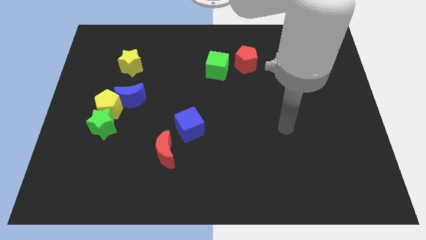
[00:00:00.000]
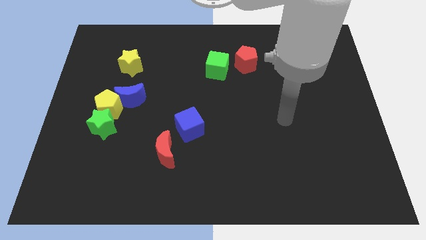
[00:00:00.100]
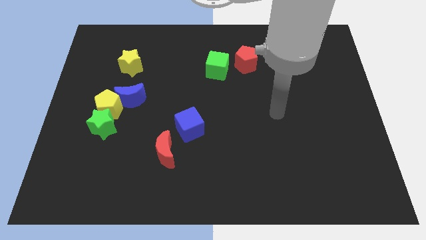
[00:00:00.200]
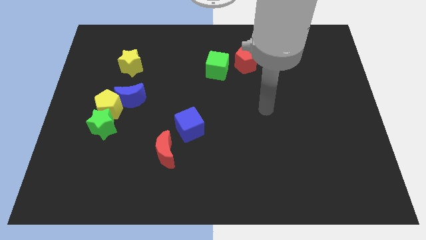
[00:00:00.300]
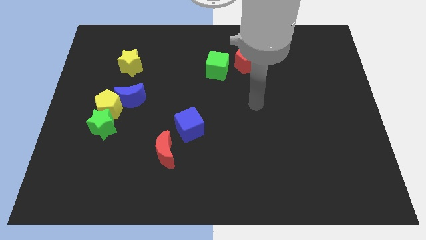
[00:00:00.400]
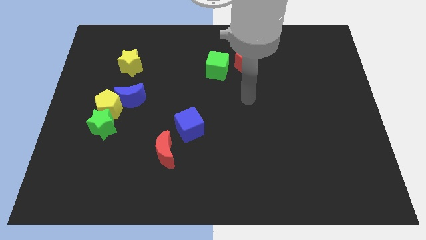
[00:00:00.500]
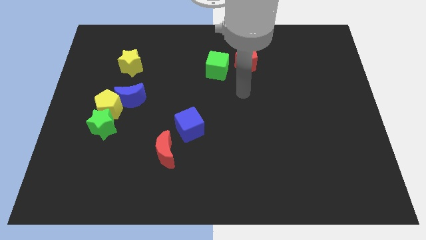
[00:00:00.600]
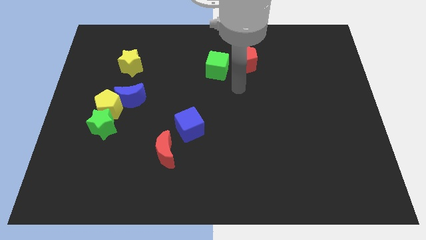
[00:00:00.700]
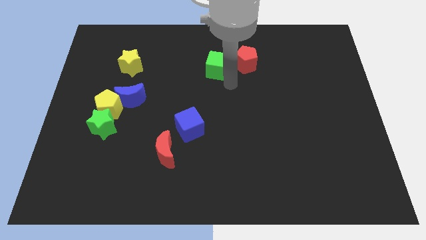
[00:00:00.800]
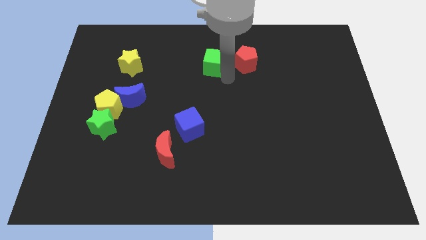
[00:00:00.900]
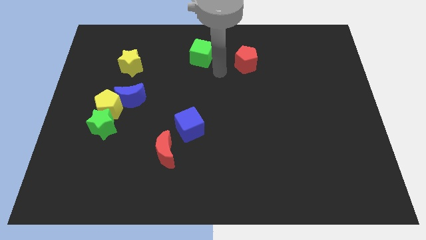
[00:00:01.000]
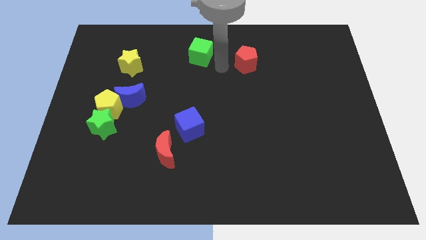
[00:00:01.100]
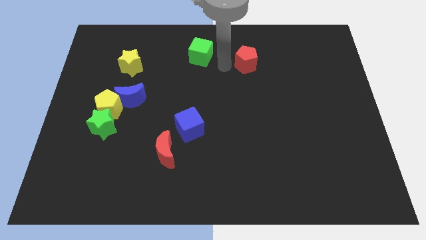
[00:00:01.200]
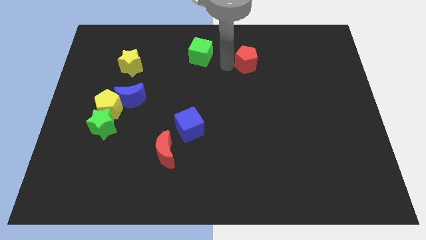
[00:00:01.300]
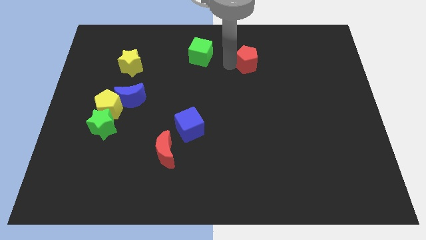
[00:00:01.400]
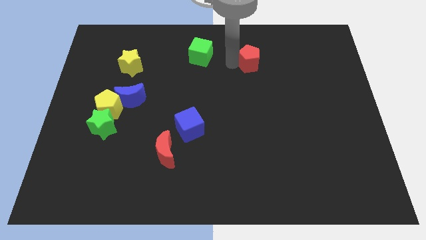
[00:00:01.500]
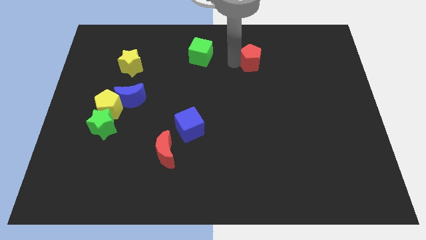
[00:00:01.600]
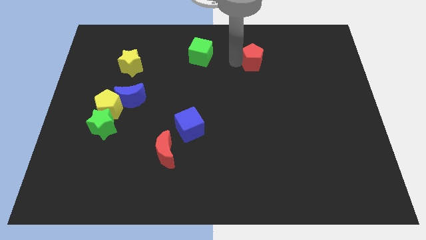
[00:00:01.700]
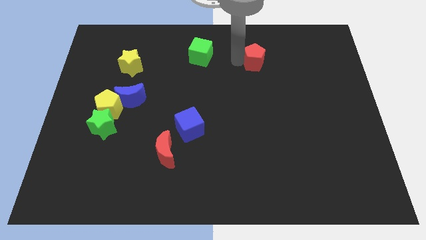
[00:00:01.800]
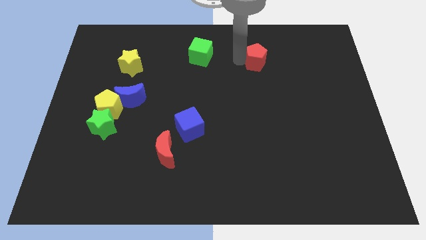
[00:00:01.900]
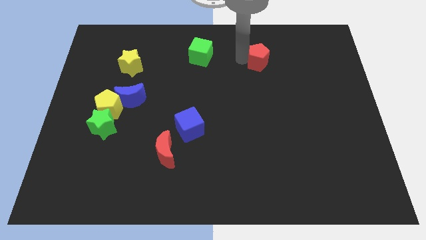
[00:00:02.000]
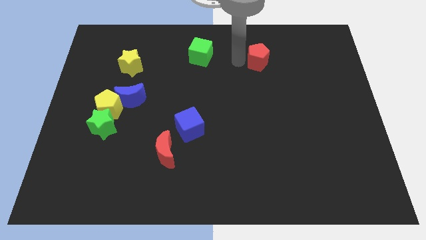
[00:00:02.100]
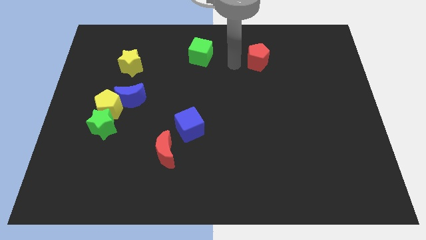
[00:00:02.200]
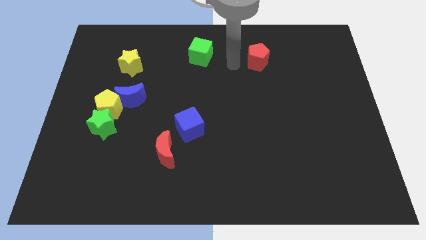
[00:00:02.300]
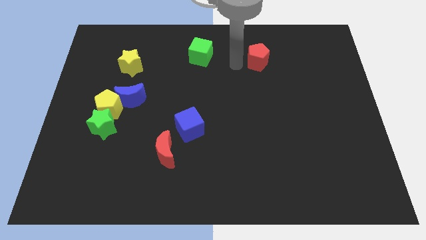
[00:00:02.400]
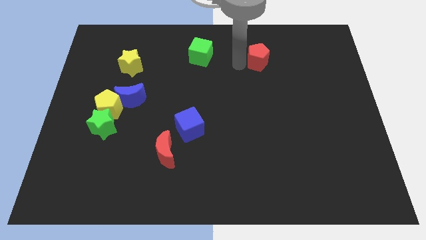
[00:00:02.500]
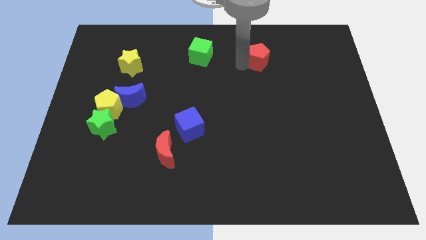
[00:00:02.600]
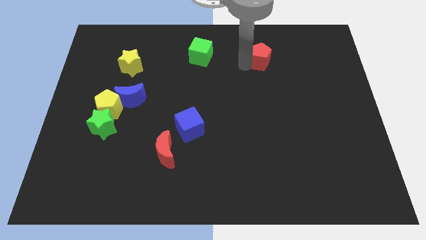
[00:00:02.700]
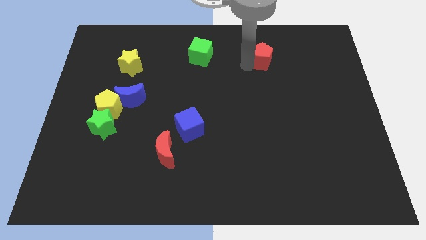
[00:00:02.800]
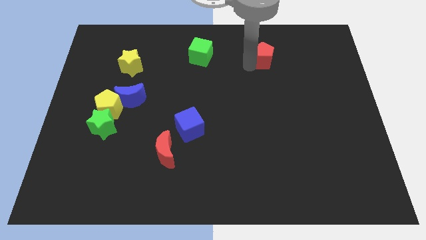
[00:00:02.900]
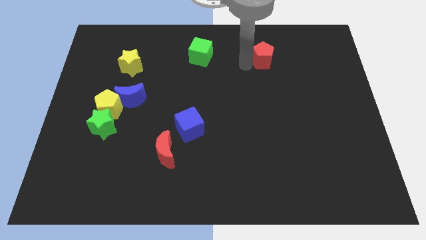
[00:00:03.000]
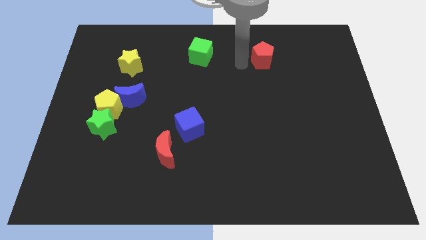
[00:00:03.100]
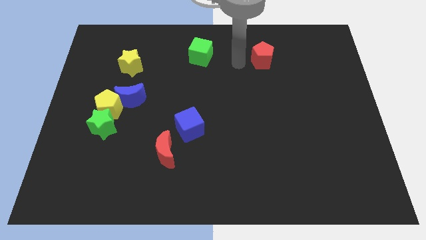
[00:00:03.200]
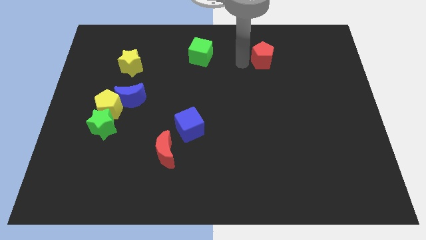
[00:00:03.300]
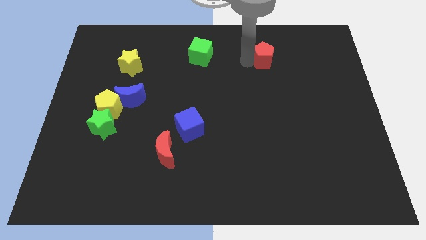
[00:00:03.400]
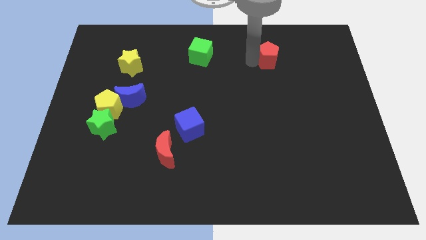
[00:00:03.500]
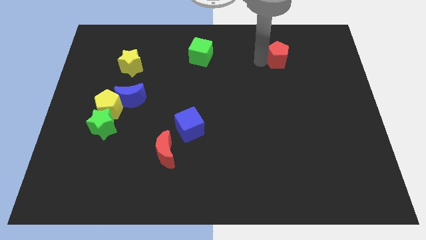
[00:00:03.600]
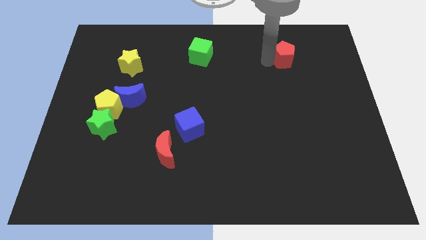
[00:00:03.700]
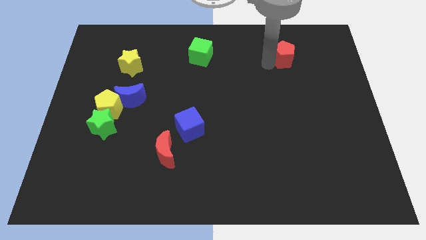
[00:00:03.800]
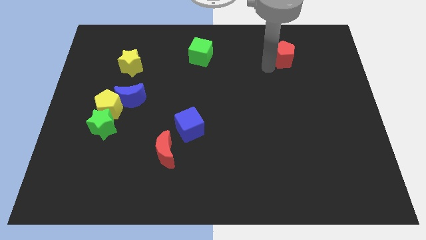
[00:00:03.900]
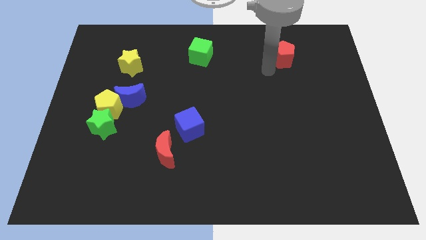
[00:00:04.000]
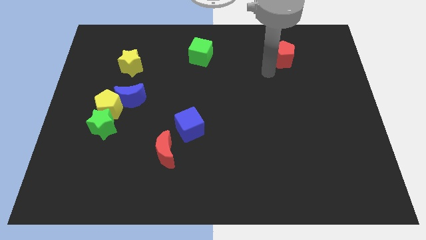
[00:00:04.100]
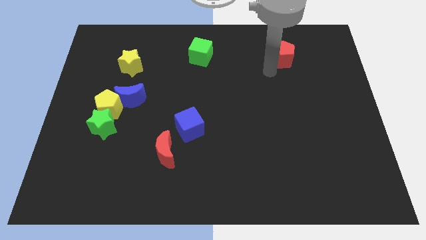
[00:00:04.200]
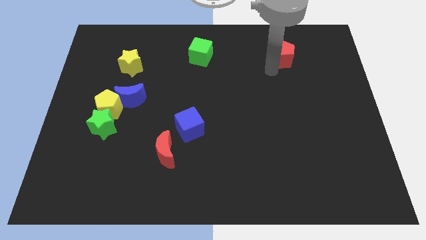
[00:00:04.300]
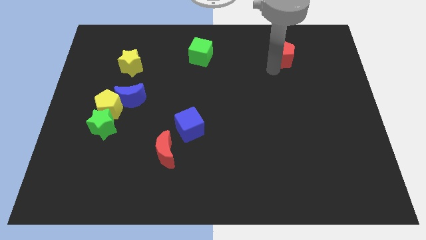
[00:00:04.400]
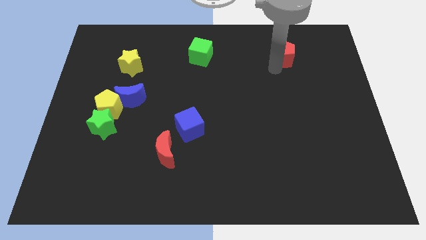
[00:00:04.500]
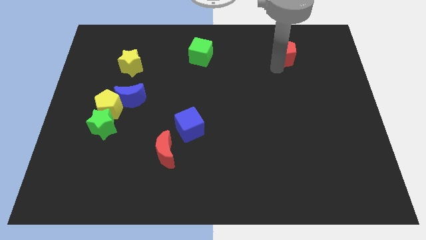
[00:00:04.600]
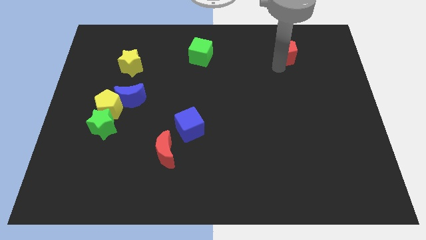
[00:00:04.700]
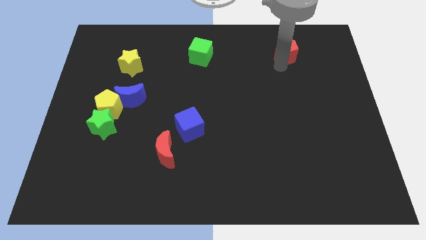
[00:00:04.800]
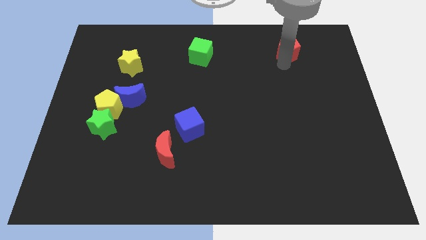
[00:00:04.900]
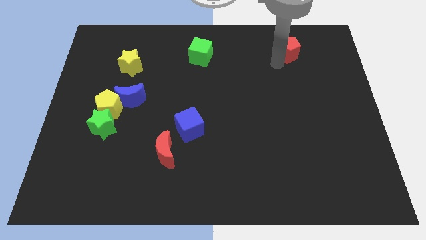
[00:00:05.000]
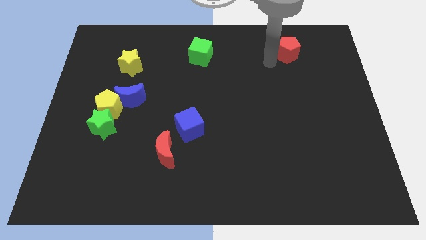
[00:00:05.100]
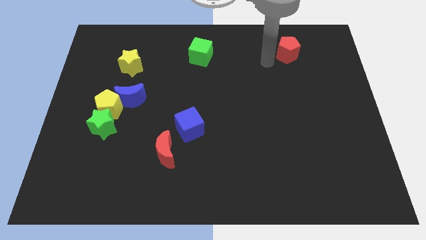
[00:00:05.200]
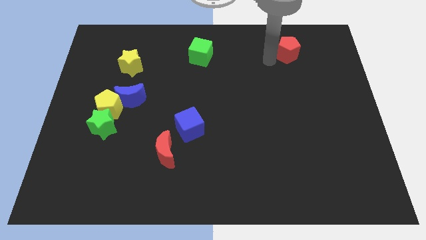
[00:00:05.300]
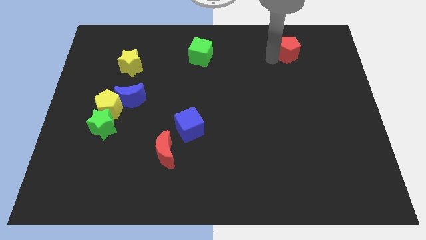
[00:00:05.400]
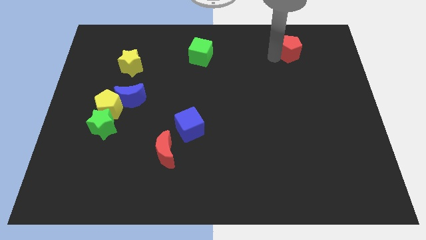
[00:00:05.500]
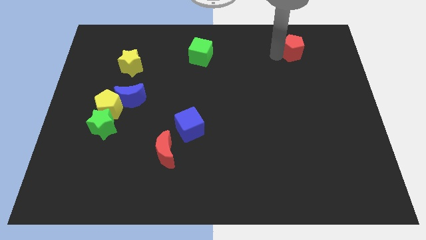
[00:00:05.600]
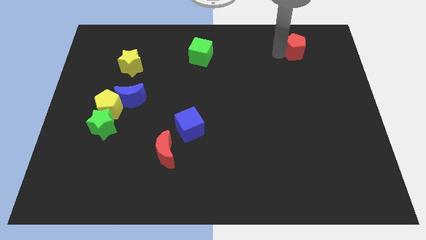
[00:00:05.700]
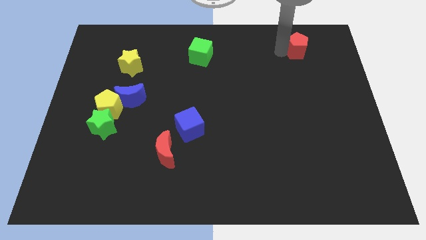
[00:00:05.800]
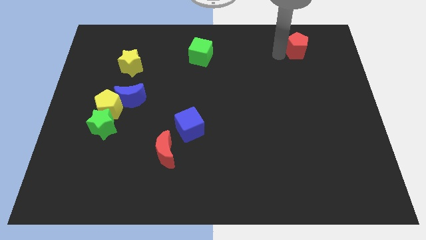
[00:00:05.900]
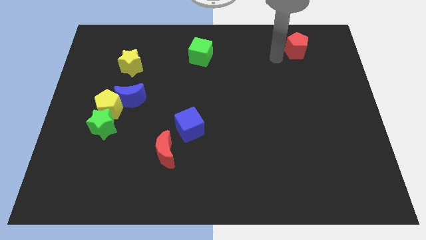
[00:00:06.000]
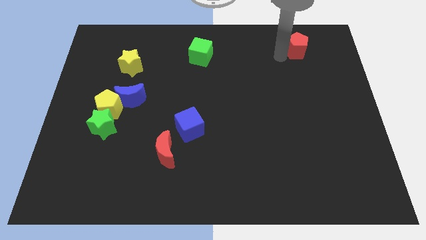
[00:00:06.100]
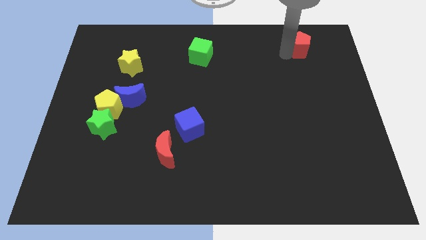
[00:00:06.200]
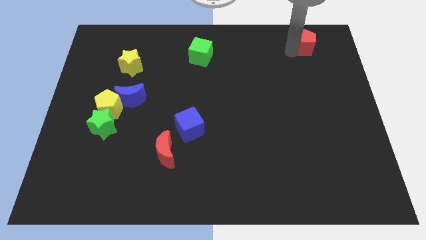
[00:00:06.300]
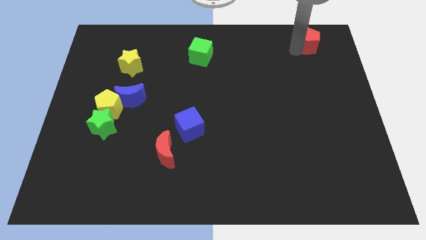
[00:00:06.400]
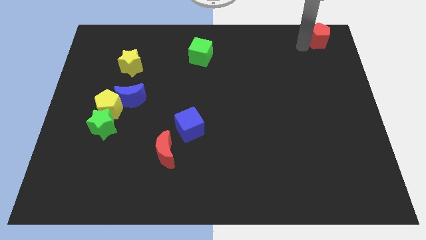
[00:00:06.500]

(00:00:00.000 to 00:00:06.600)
push the red pentagon to the top right corner

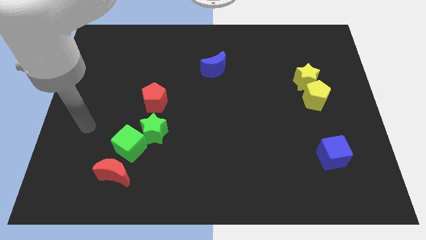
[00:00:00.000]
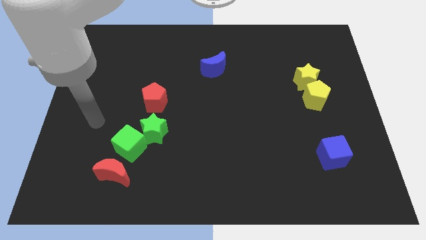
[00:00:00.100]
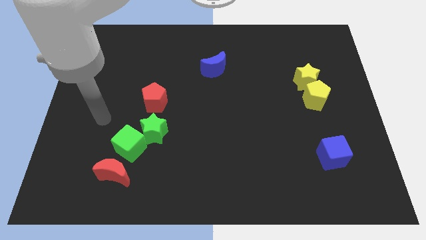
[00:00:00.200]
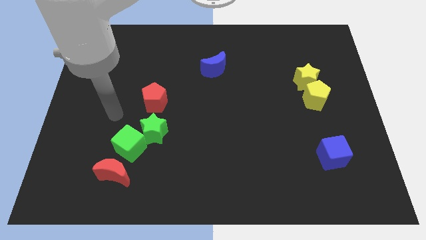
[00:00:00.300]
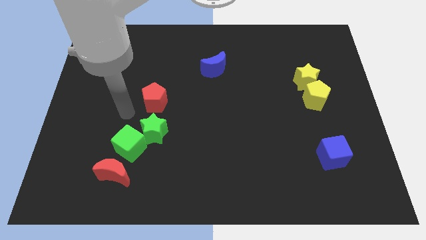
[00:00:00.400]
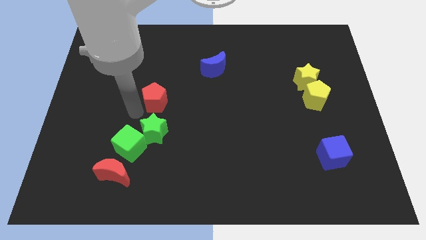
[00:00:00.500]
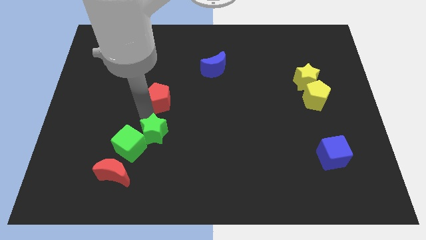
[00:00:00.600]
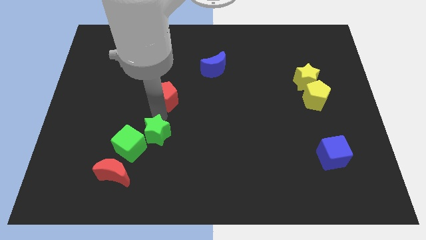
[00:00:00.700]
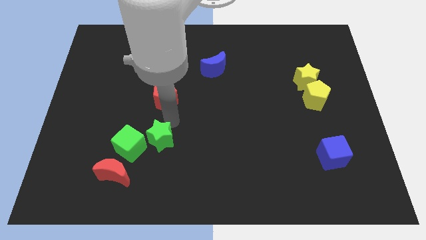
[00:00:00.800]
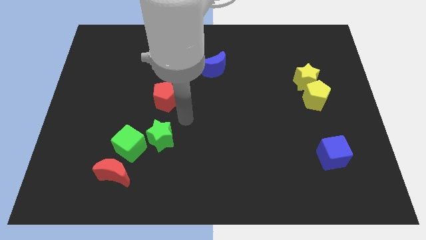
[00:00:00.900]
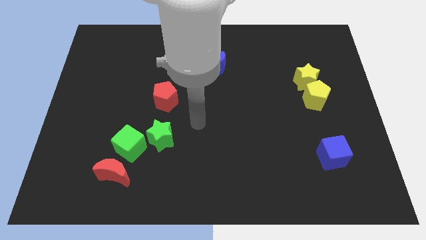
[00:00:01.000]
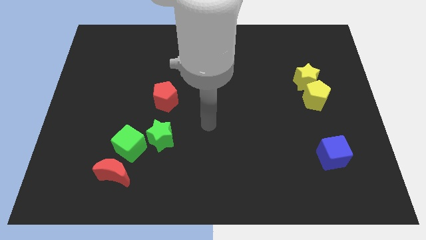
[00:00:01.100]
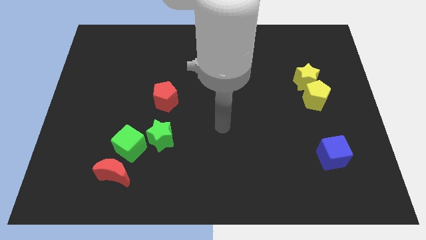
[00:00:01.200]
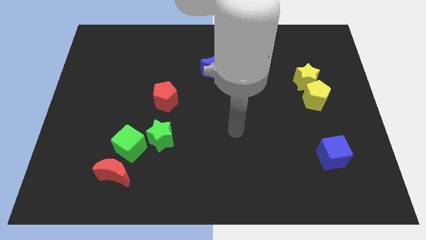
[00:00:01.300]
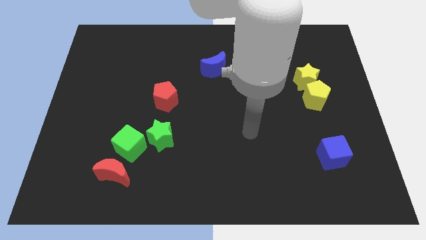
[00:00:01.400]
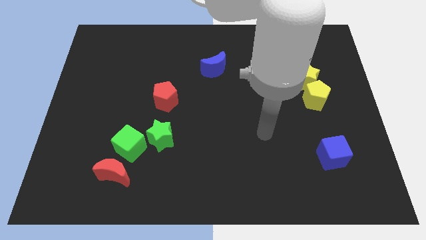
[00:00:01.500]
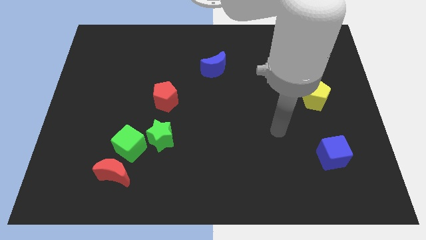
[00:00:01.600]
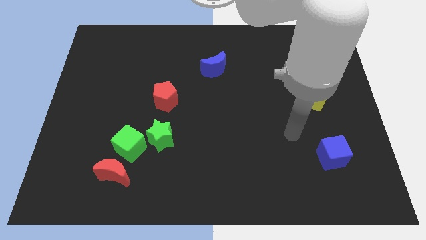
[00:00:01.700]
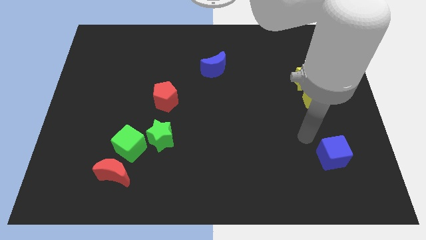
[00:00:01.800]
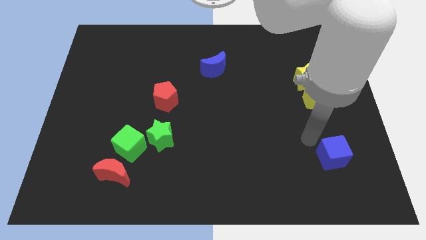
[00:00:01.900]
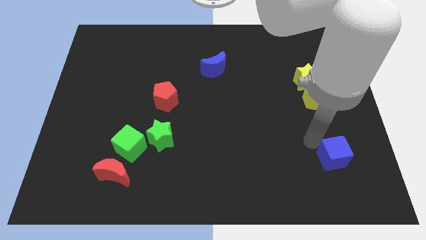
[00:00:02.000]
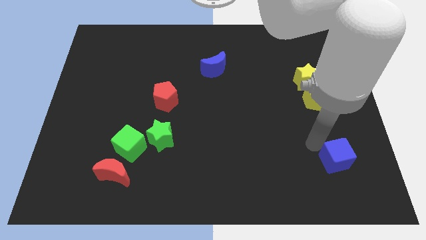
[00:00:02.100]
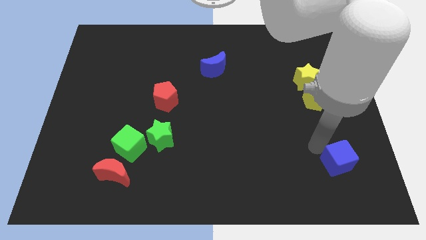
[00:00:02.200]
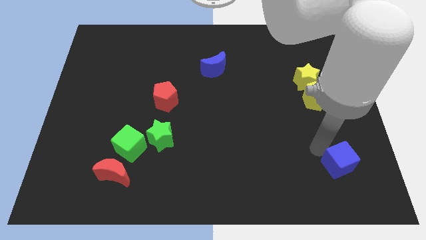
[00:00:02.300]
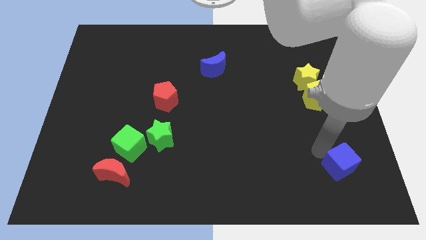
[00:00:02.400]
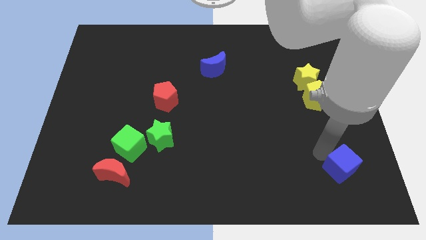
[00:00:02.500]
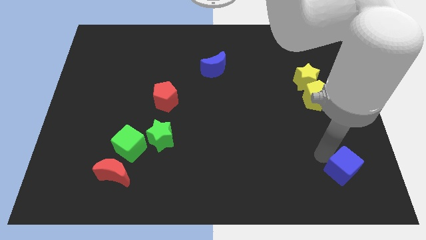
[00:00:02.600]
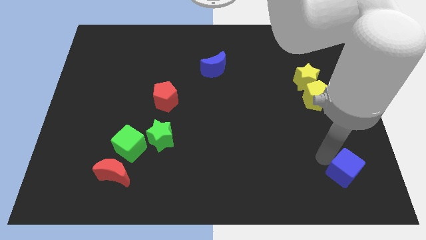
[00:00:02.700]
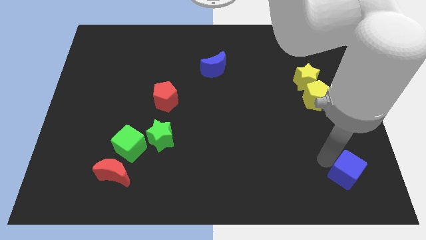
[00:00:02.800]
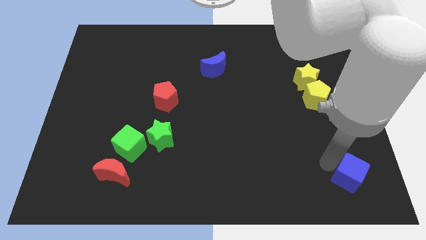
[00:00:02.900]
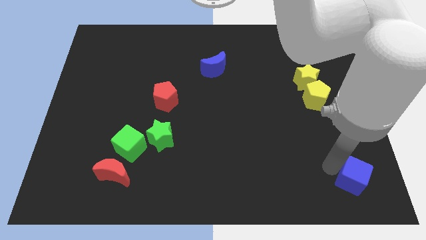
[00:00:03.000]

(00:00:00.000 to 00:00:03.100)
push the blue cube to the bottom right
